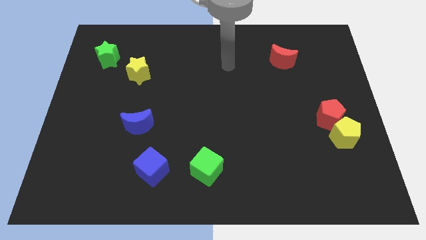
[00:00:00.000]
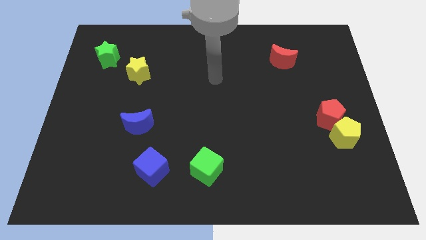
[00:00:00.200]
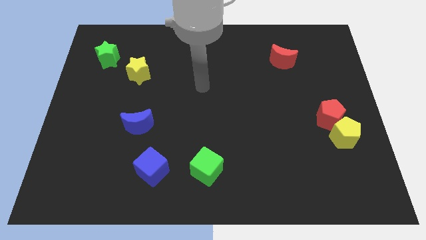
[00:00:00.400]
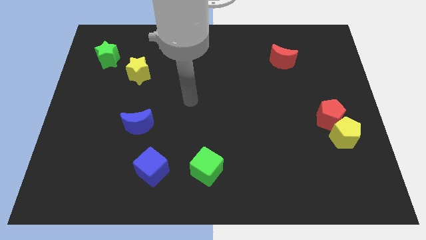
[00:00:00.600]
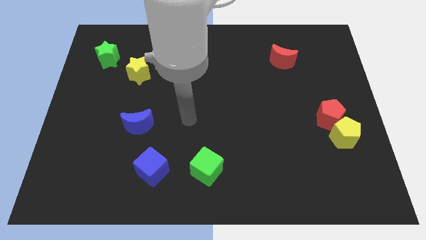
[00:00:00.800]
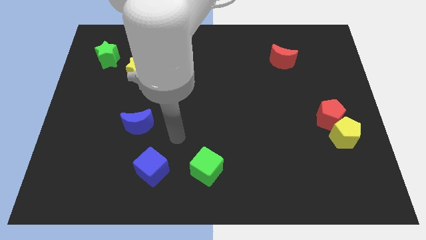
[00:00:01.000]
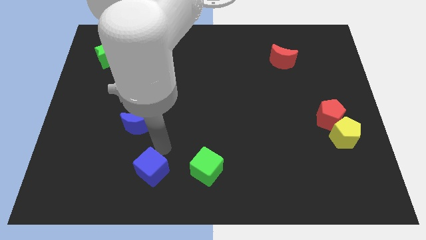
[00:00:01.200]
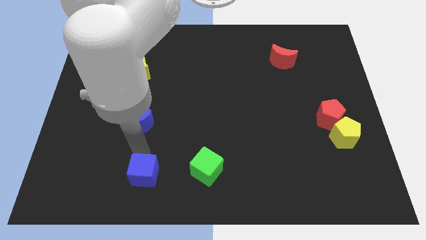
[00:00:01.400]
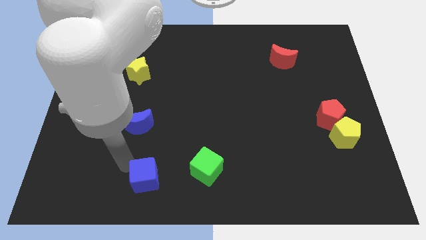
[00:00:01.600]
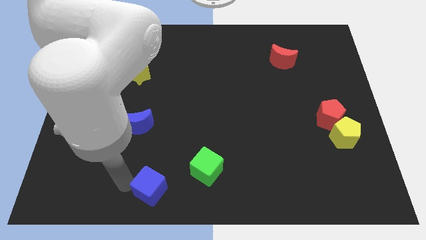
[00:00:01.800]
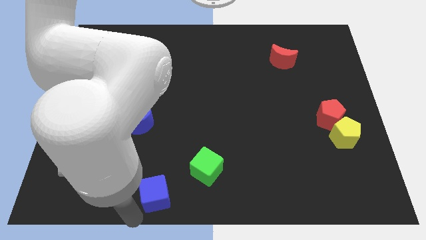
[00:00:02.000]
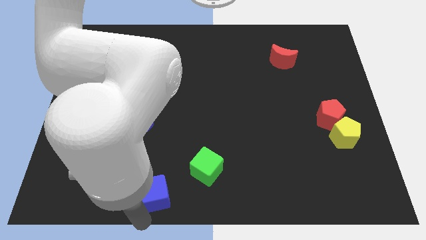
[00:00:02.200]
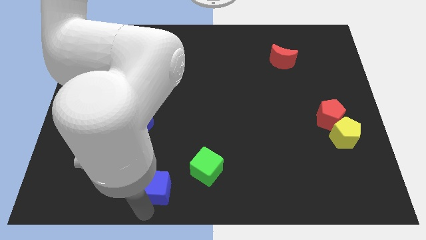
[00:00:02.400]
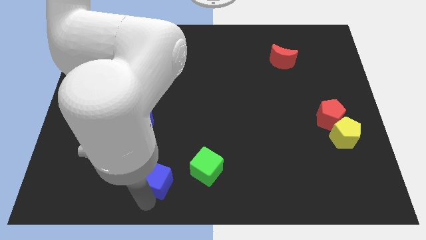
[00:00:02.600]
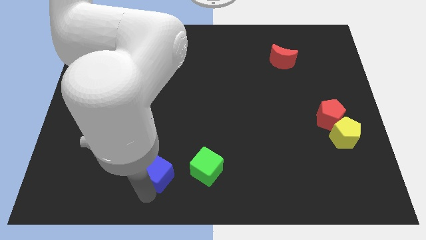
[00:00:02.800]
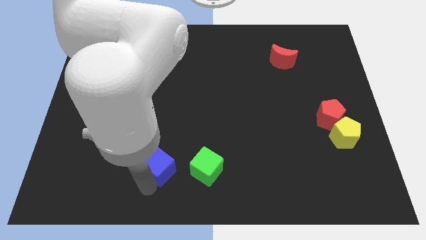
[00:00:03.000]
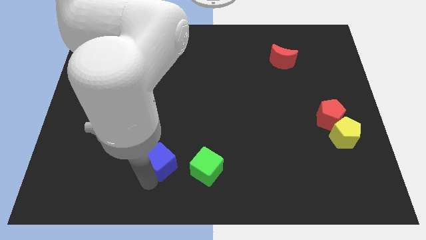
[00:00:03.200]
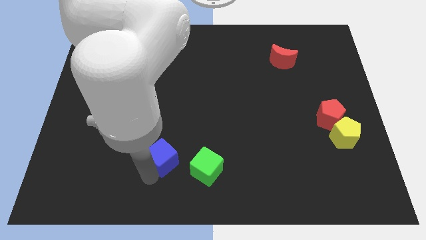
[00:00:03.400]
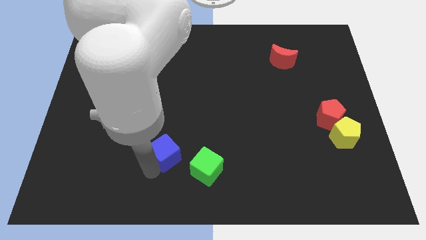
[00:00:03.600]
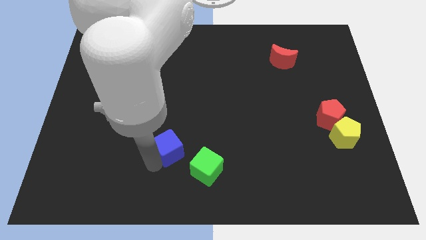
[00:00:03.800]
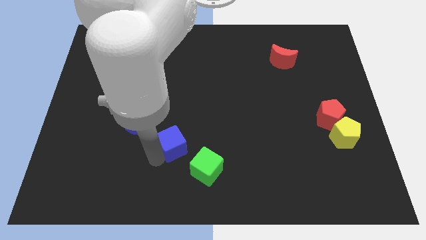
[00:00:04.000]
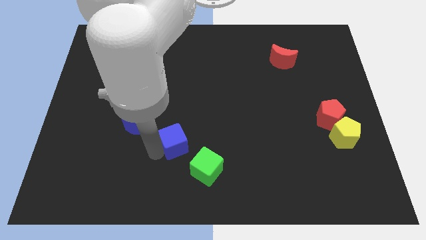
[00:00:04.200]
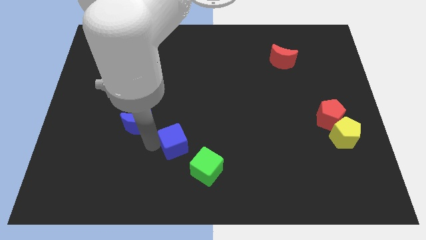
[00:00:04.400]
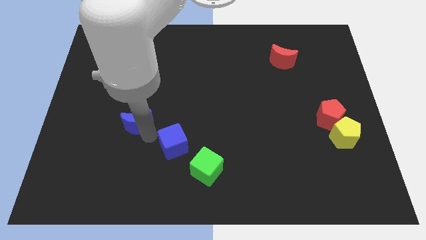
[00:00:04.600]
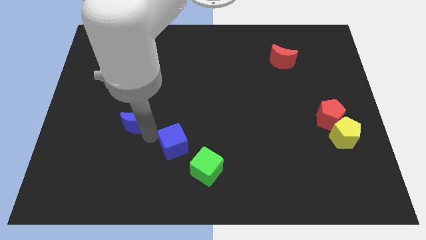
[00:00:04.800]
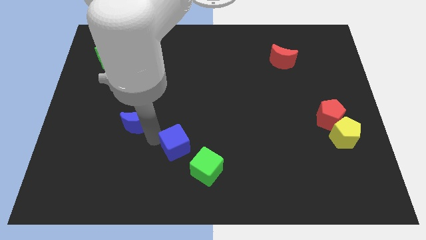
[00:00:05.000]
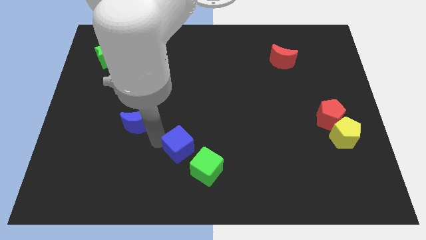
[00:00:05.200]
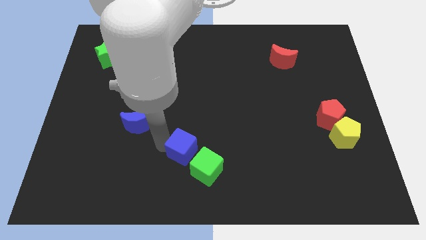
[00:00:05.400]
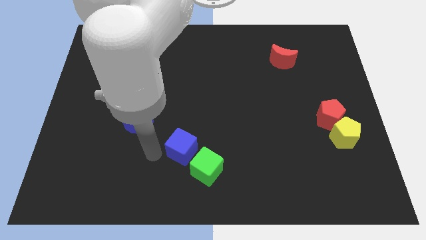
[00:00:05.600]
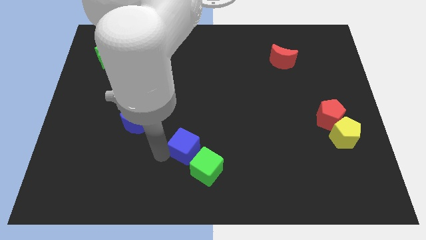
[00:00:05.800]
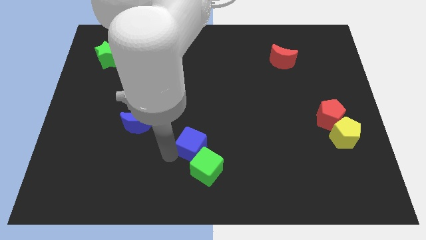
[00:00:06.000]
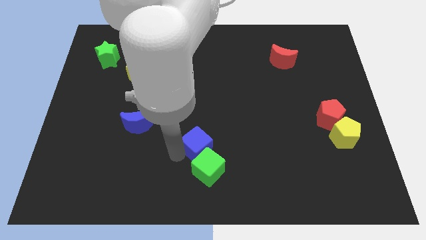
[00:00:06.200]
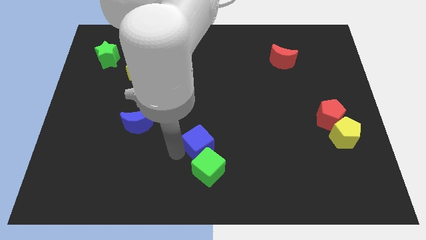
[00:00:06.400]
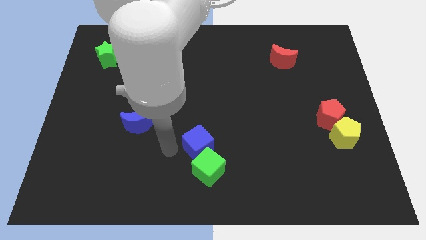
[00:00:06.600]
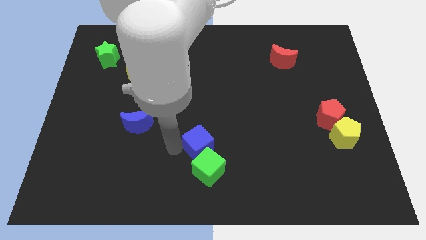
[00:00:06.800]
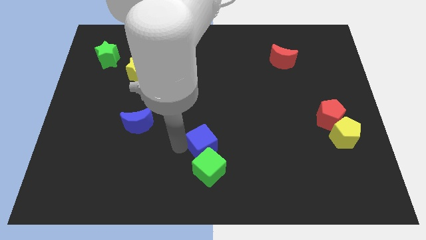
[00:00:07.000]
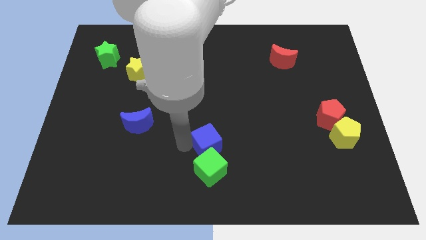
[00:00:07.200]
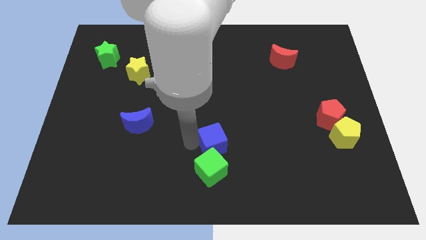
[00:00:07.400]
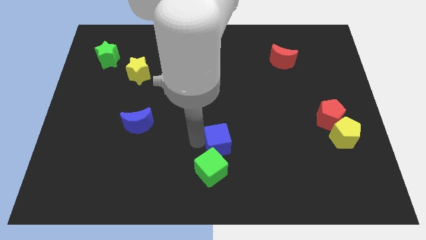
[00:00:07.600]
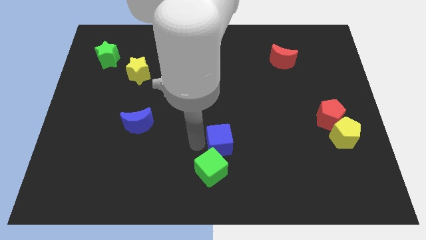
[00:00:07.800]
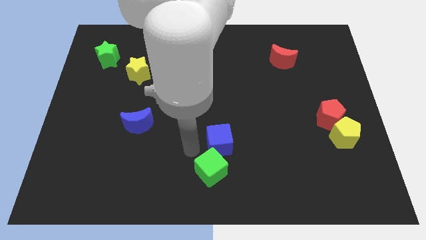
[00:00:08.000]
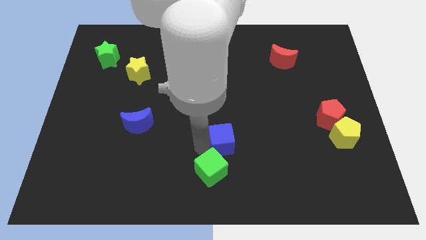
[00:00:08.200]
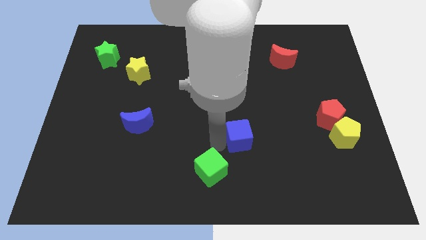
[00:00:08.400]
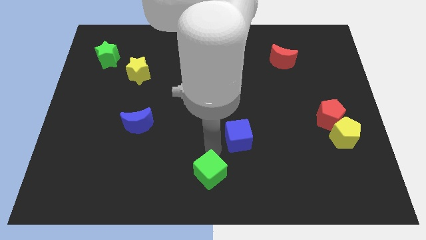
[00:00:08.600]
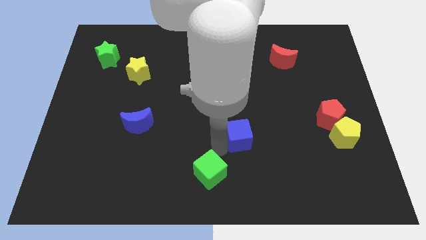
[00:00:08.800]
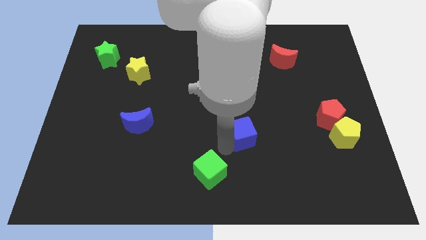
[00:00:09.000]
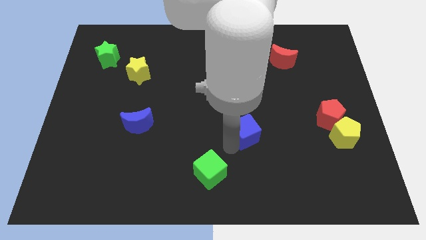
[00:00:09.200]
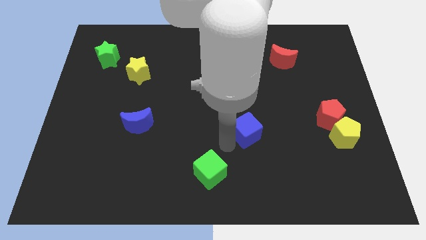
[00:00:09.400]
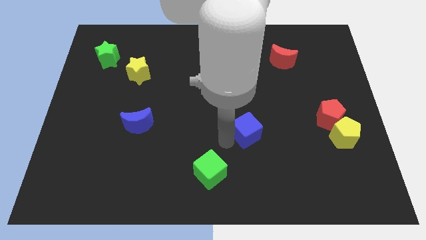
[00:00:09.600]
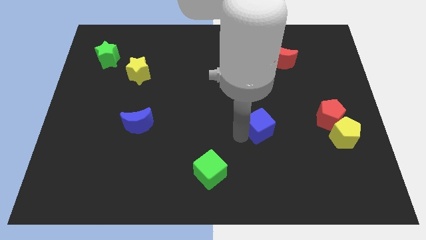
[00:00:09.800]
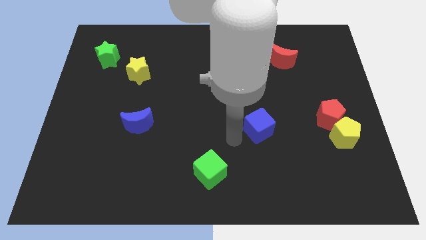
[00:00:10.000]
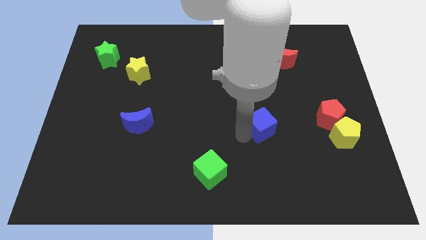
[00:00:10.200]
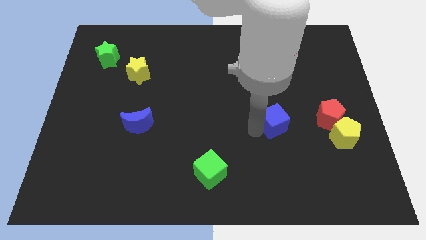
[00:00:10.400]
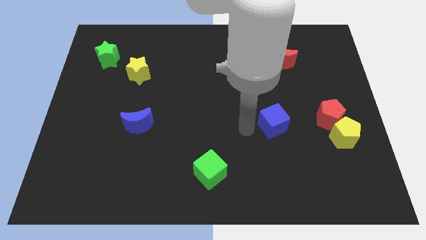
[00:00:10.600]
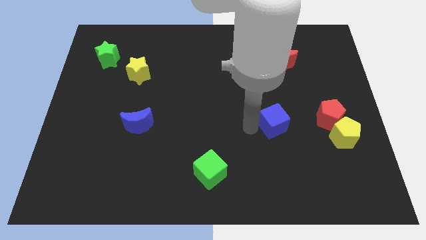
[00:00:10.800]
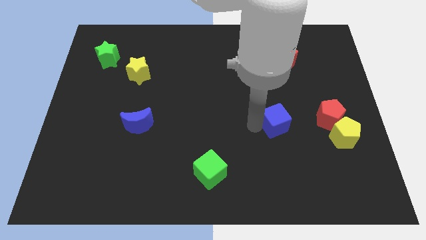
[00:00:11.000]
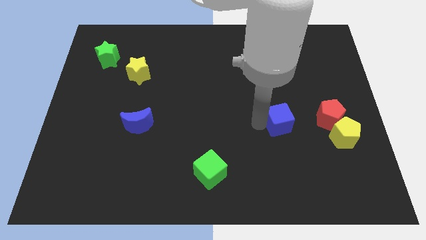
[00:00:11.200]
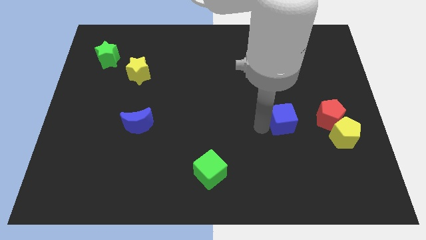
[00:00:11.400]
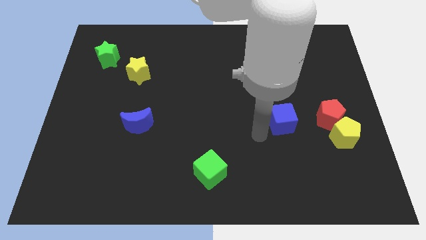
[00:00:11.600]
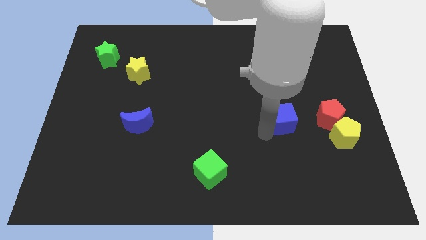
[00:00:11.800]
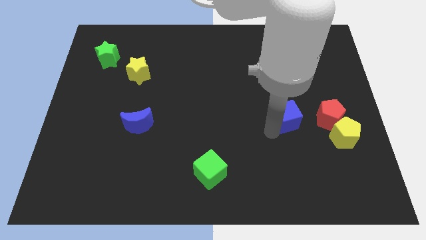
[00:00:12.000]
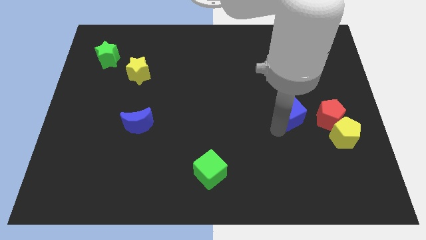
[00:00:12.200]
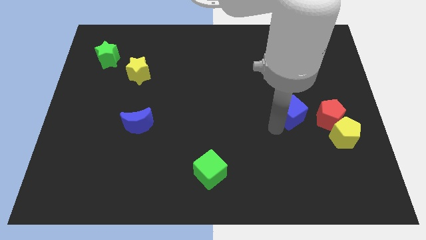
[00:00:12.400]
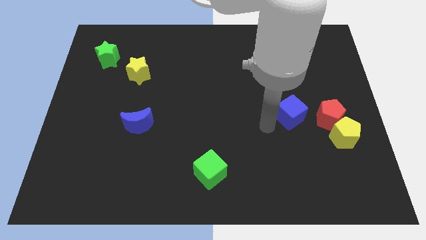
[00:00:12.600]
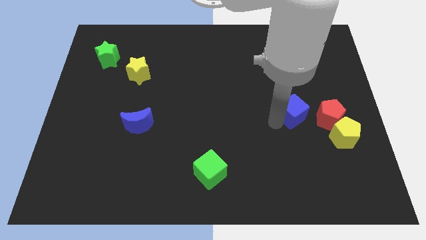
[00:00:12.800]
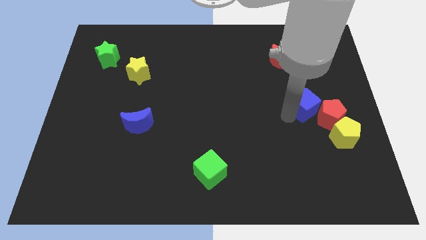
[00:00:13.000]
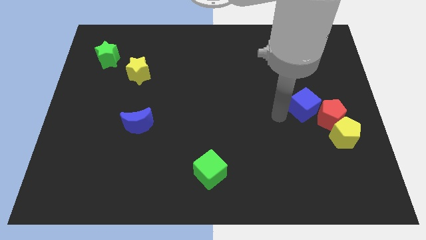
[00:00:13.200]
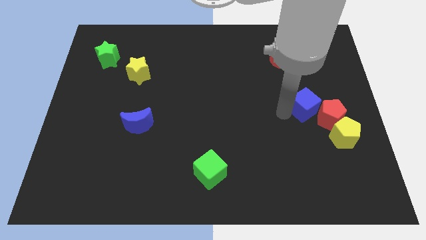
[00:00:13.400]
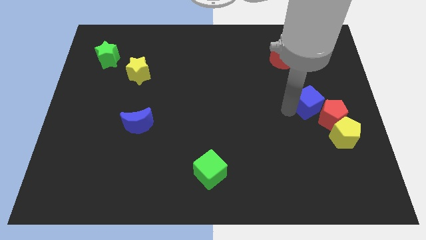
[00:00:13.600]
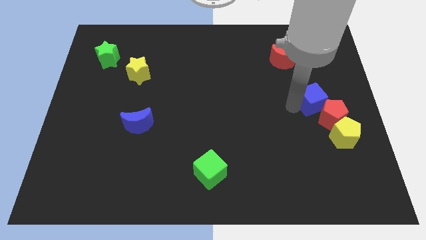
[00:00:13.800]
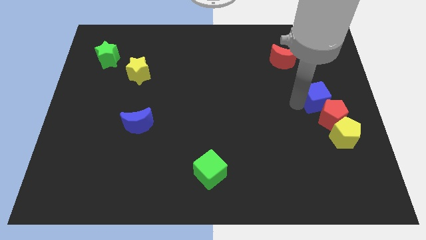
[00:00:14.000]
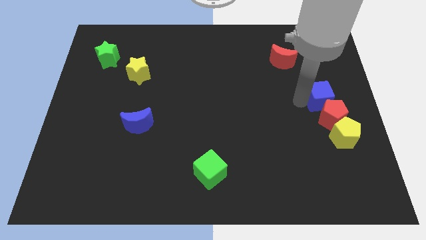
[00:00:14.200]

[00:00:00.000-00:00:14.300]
push the blue cube to the right side of the board

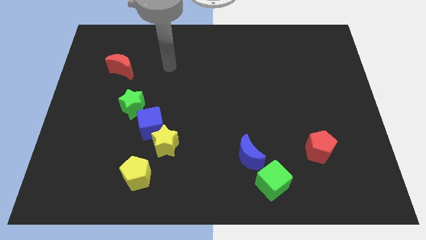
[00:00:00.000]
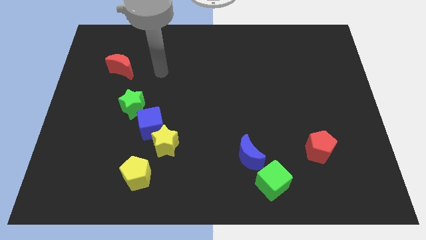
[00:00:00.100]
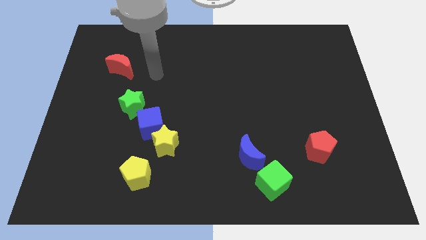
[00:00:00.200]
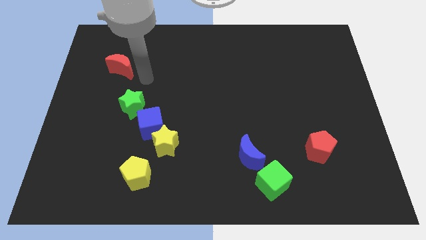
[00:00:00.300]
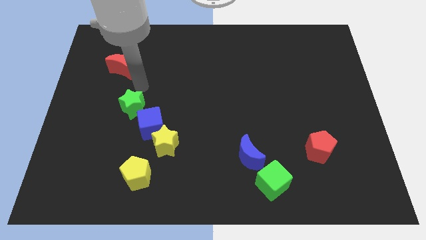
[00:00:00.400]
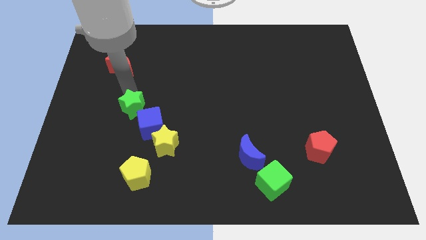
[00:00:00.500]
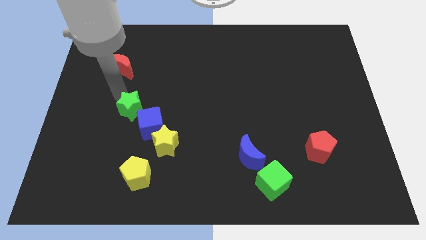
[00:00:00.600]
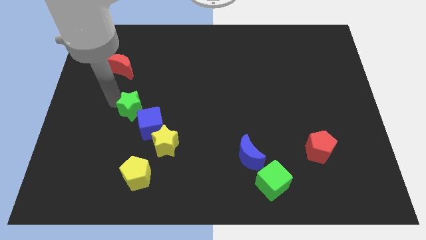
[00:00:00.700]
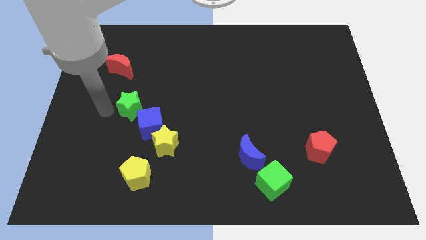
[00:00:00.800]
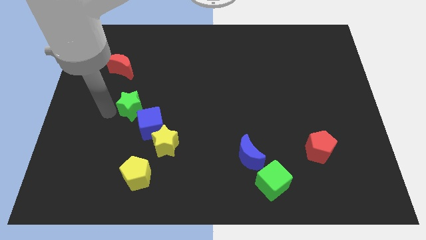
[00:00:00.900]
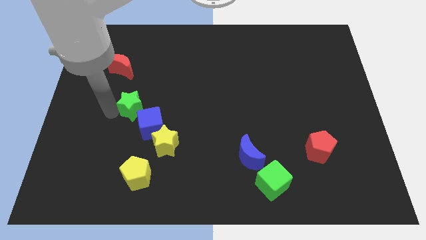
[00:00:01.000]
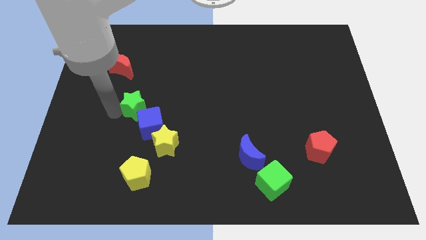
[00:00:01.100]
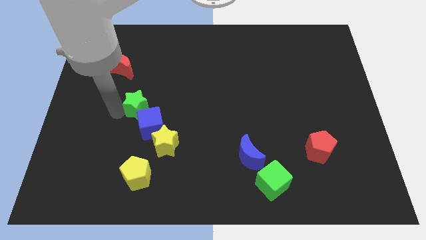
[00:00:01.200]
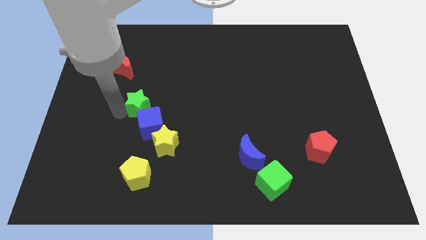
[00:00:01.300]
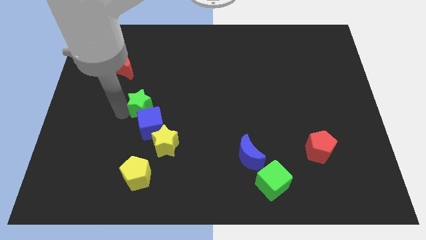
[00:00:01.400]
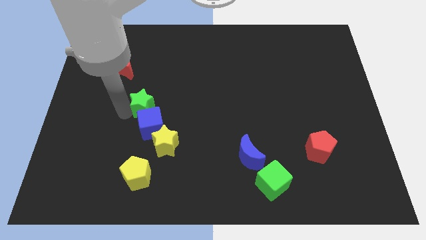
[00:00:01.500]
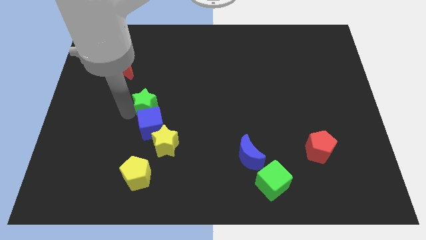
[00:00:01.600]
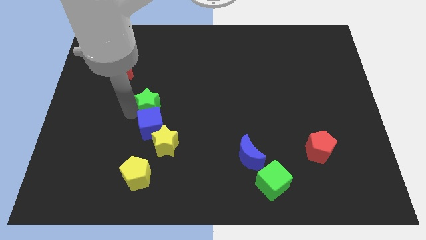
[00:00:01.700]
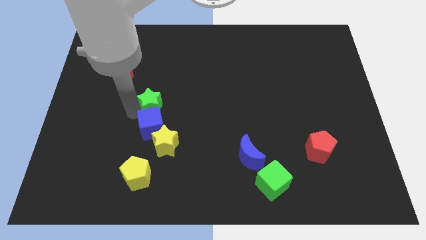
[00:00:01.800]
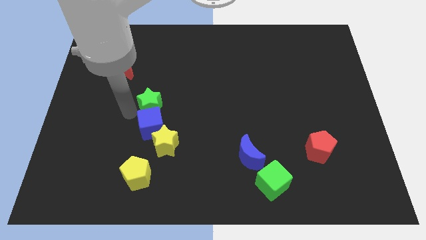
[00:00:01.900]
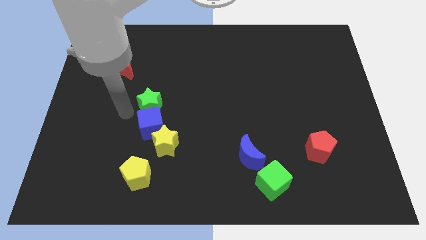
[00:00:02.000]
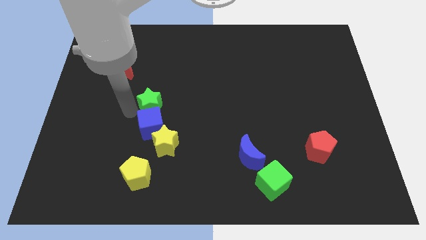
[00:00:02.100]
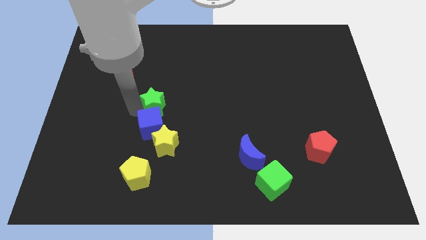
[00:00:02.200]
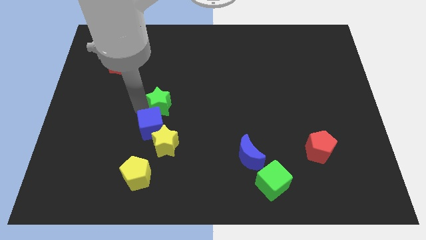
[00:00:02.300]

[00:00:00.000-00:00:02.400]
move the green star to the center of the board
